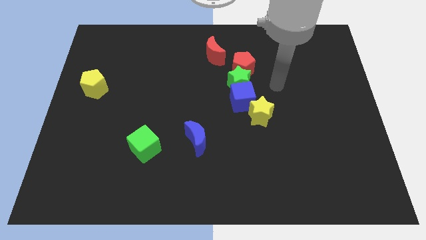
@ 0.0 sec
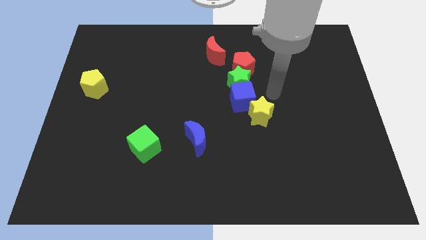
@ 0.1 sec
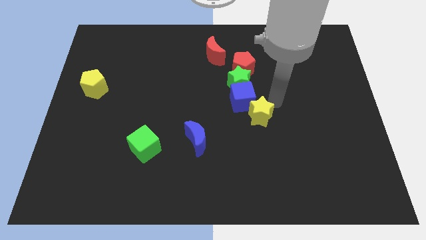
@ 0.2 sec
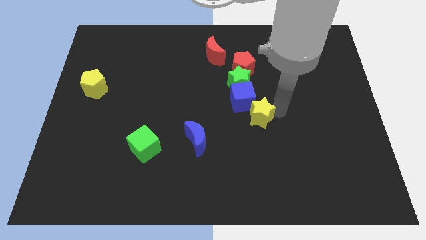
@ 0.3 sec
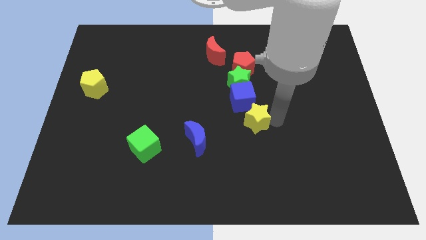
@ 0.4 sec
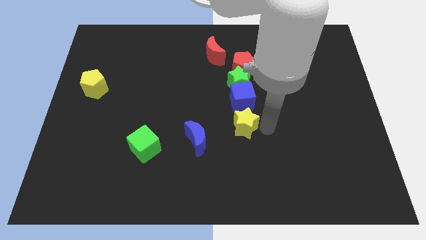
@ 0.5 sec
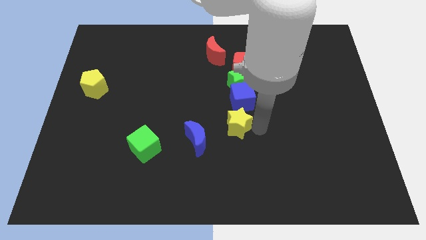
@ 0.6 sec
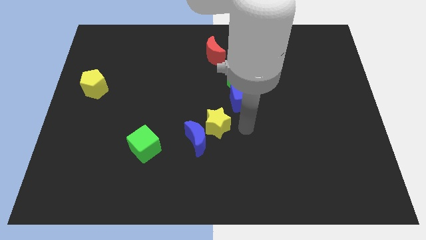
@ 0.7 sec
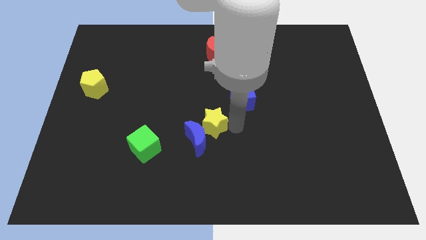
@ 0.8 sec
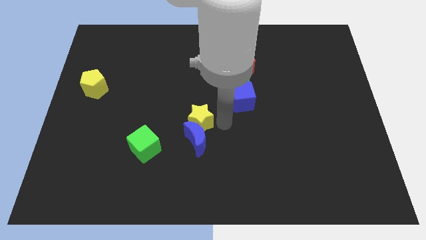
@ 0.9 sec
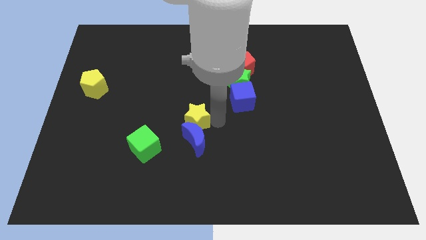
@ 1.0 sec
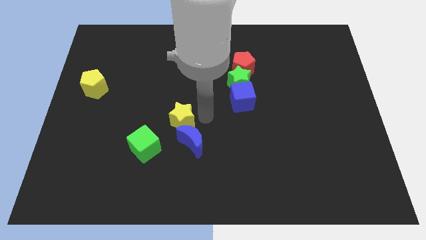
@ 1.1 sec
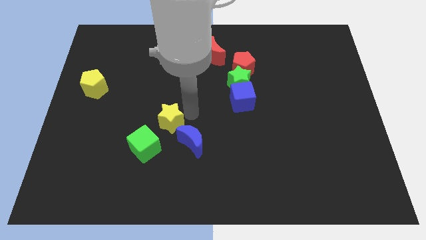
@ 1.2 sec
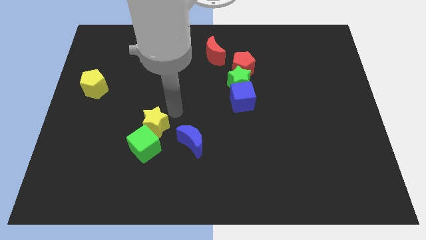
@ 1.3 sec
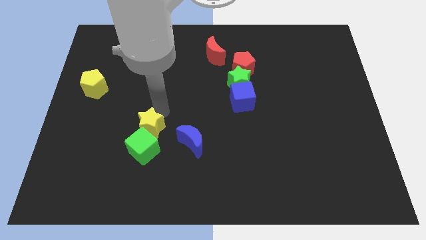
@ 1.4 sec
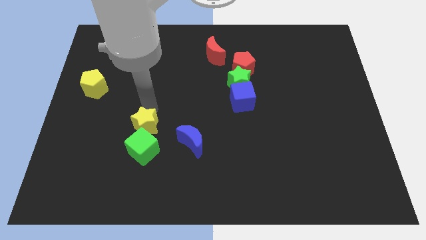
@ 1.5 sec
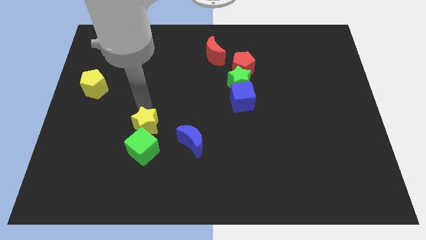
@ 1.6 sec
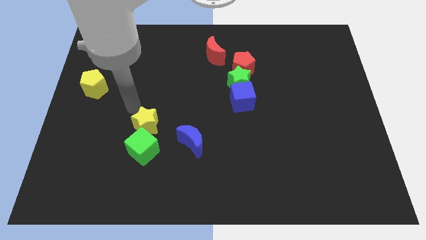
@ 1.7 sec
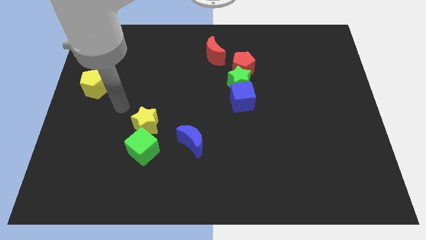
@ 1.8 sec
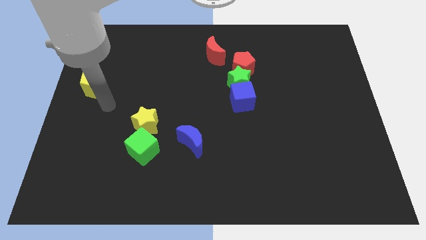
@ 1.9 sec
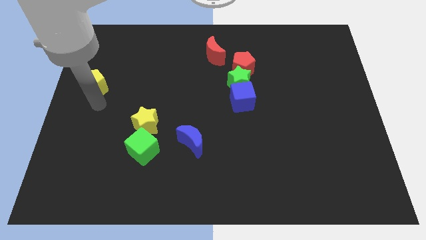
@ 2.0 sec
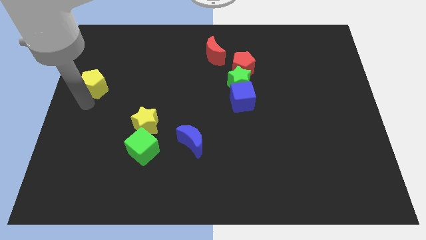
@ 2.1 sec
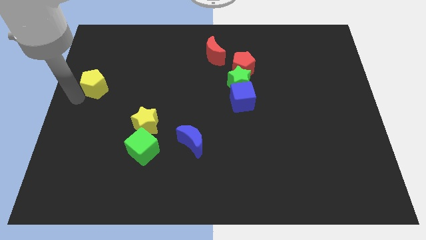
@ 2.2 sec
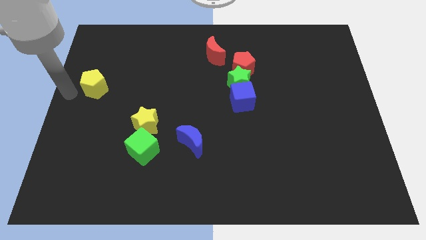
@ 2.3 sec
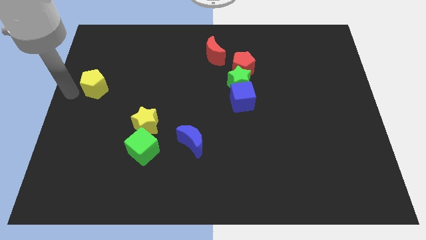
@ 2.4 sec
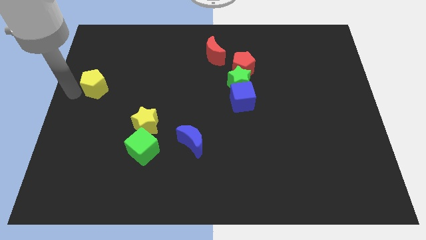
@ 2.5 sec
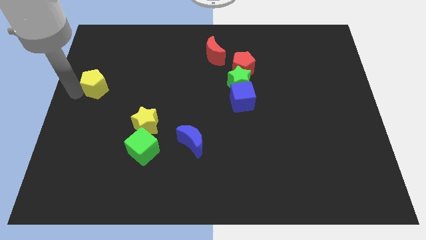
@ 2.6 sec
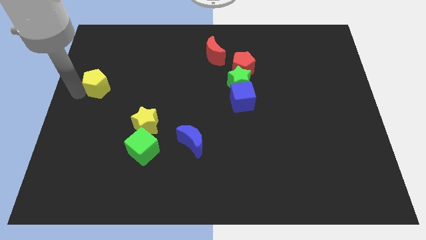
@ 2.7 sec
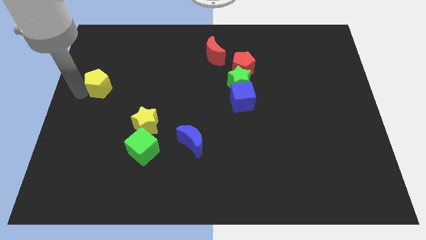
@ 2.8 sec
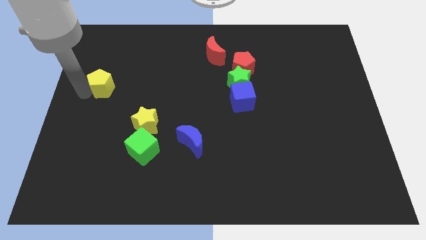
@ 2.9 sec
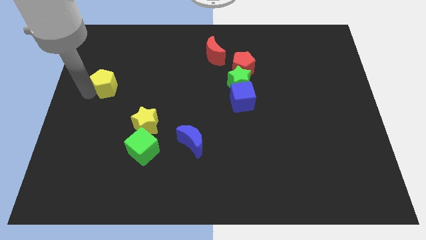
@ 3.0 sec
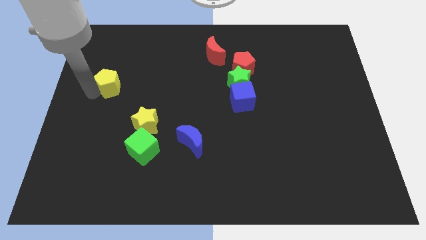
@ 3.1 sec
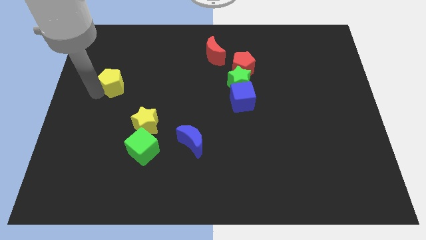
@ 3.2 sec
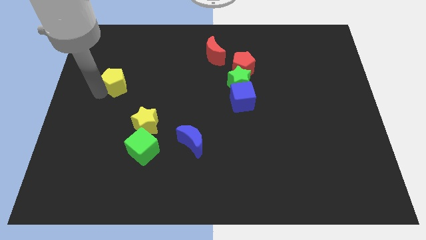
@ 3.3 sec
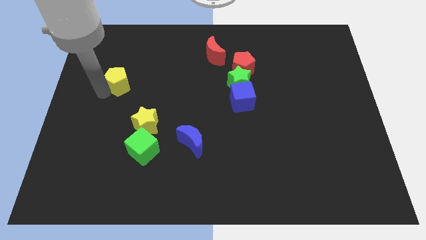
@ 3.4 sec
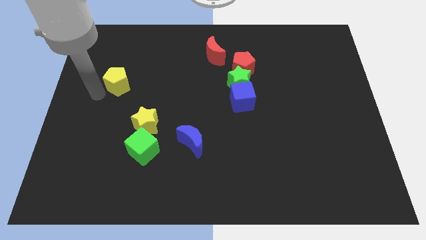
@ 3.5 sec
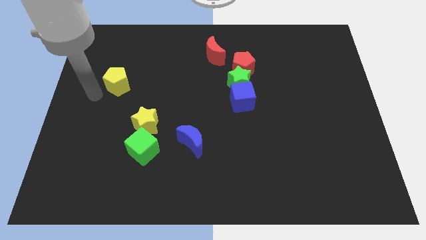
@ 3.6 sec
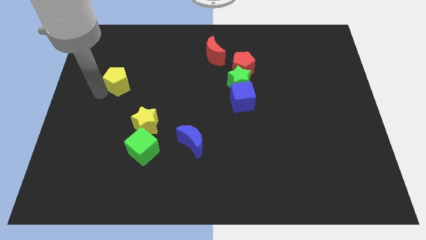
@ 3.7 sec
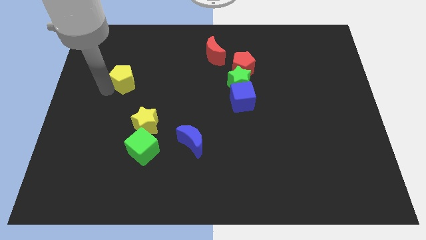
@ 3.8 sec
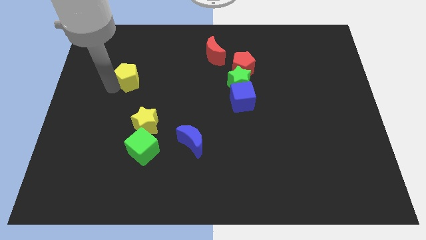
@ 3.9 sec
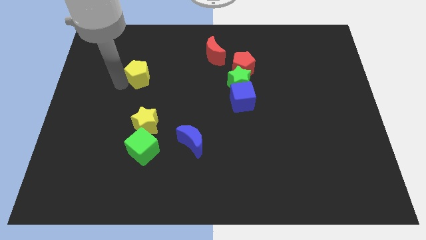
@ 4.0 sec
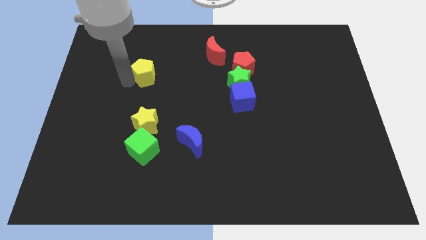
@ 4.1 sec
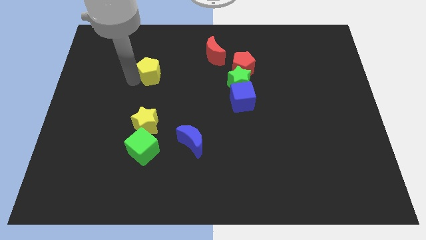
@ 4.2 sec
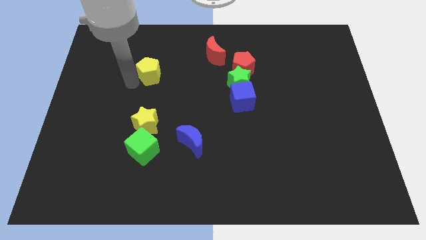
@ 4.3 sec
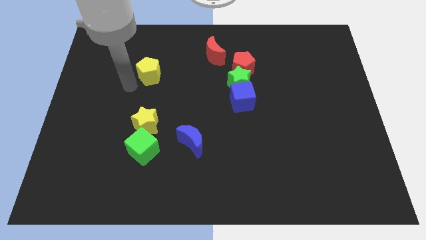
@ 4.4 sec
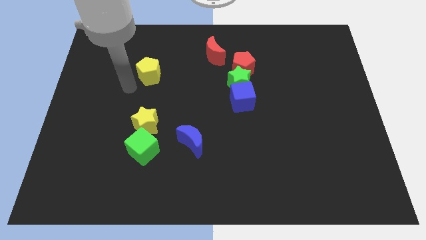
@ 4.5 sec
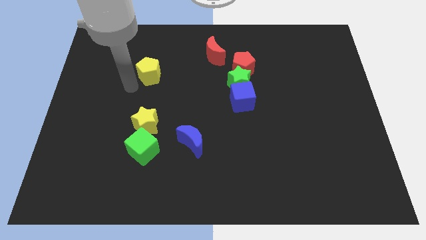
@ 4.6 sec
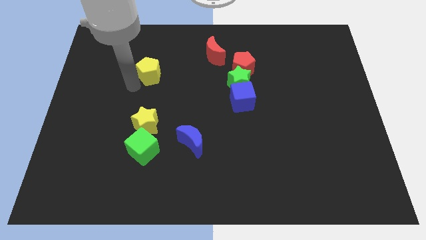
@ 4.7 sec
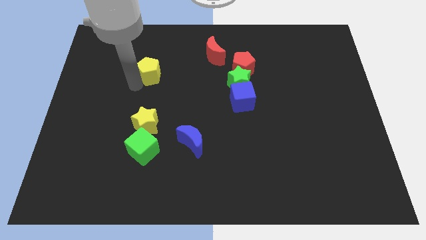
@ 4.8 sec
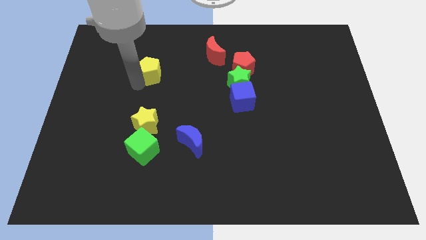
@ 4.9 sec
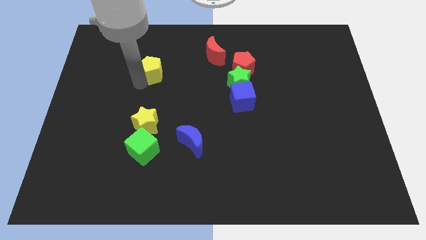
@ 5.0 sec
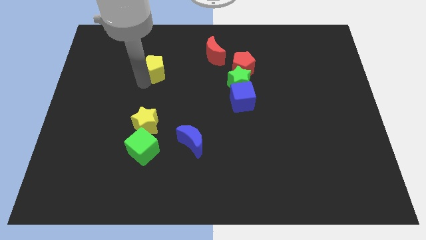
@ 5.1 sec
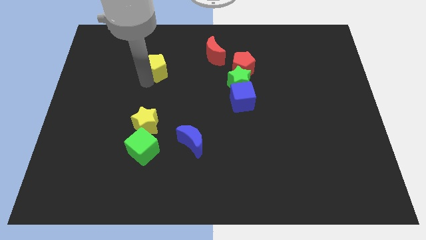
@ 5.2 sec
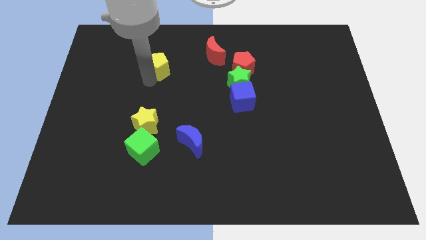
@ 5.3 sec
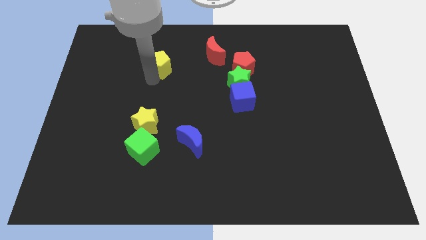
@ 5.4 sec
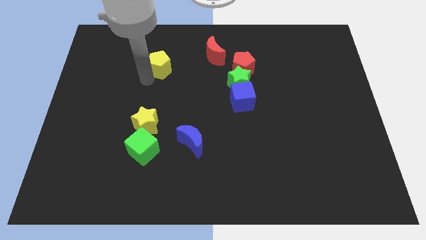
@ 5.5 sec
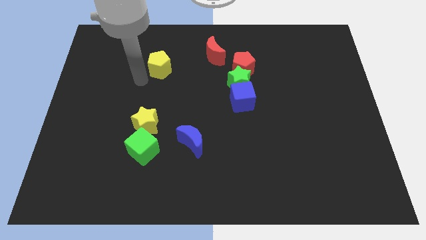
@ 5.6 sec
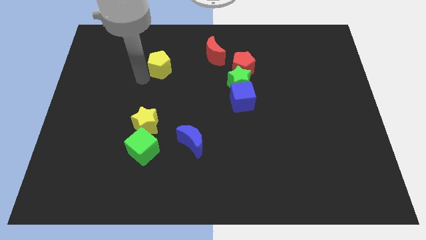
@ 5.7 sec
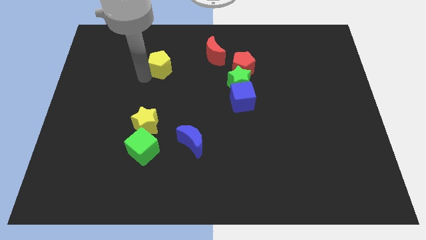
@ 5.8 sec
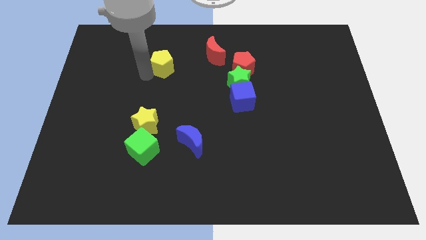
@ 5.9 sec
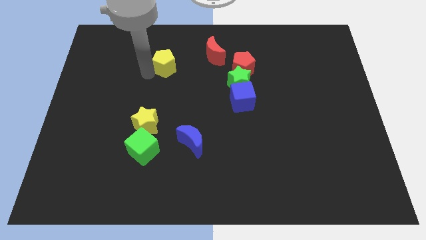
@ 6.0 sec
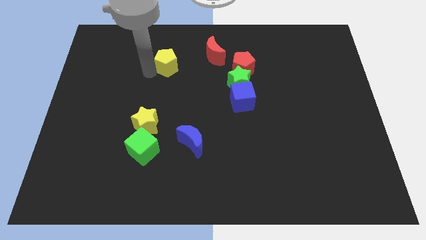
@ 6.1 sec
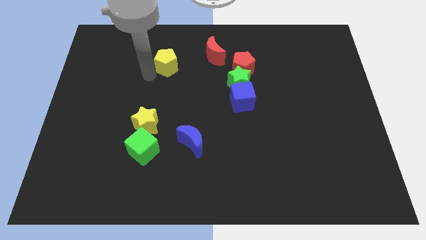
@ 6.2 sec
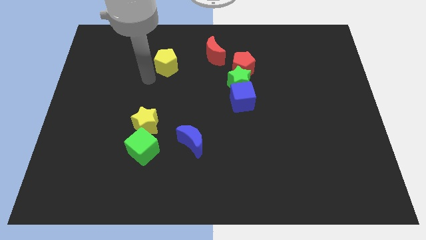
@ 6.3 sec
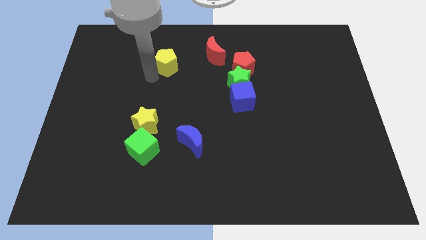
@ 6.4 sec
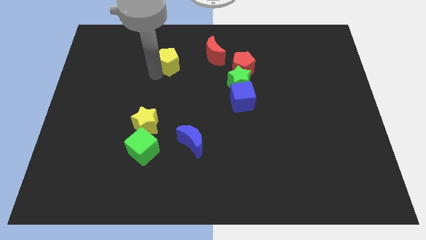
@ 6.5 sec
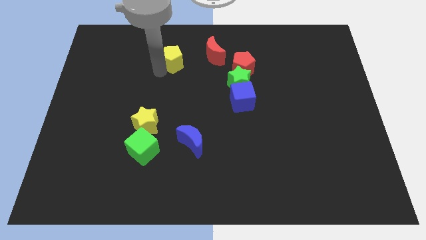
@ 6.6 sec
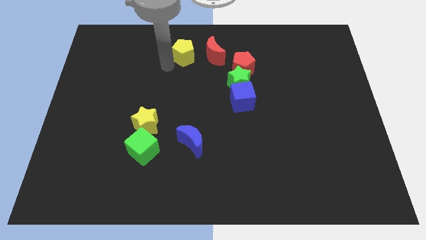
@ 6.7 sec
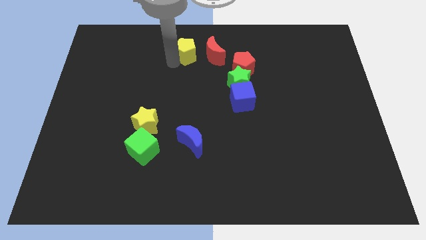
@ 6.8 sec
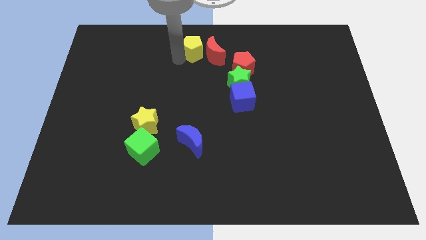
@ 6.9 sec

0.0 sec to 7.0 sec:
put the yellow pentagon to the top side

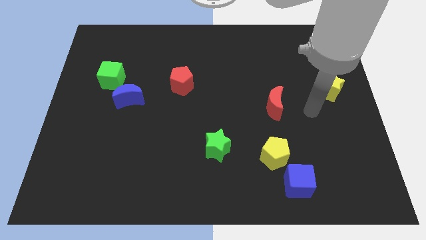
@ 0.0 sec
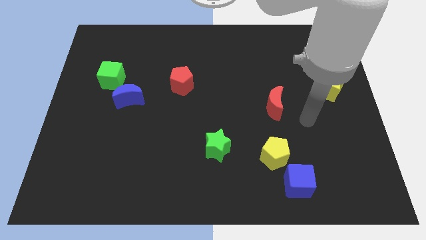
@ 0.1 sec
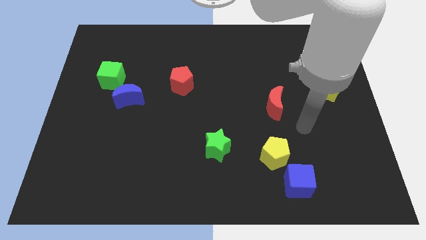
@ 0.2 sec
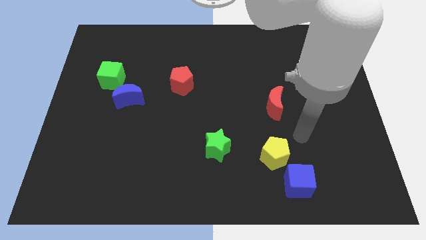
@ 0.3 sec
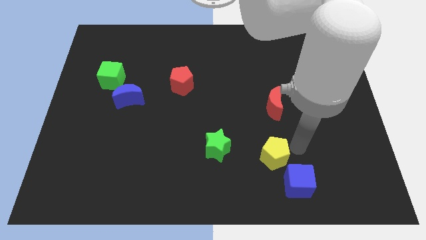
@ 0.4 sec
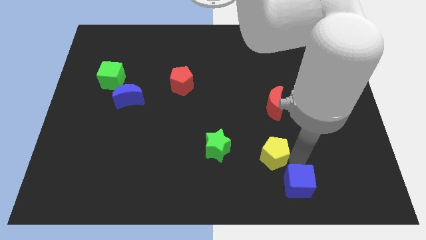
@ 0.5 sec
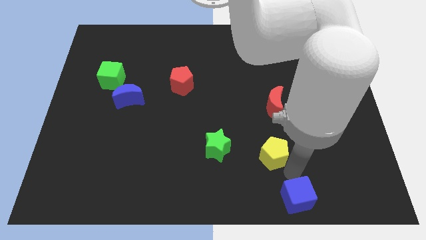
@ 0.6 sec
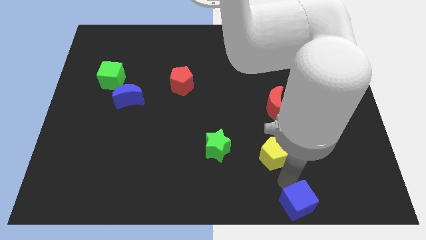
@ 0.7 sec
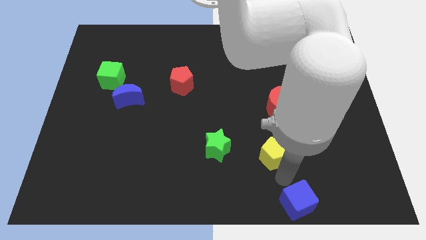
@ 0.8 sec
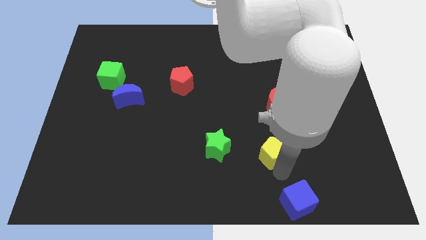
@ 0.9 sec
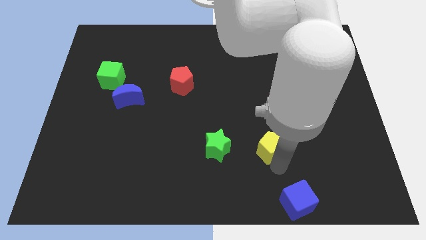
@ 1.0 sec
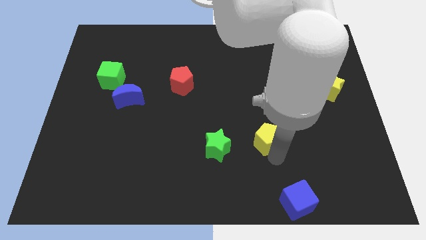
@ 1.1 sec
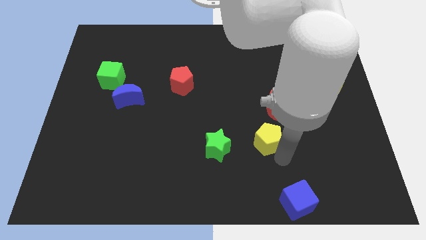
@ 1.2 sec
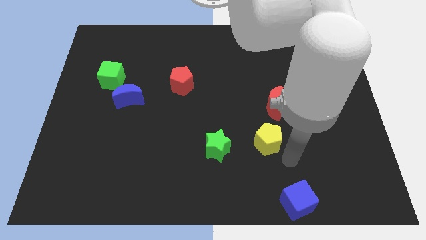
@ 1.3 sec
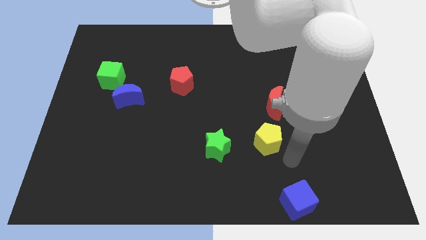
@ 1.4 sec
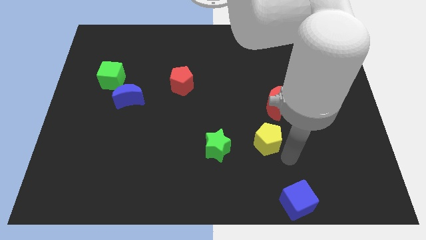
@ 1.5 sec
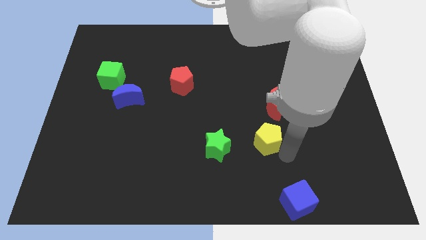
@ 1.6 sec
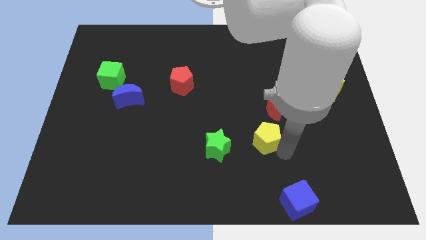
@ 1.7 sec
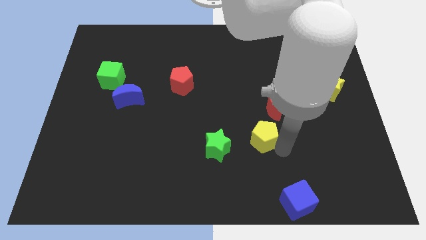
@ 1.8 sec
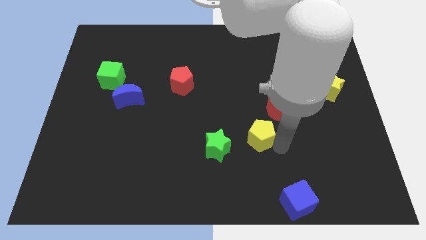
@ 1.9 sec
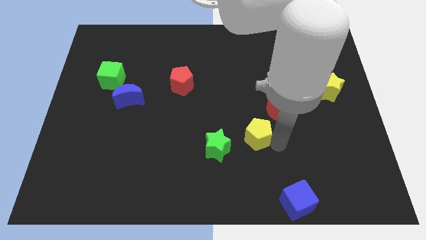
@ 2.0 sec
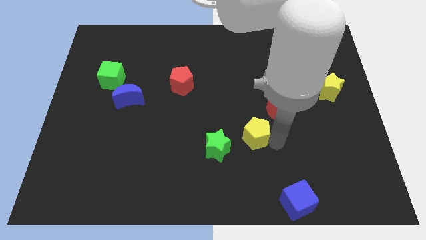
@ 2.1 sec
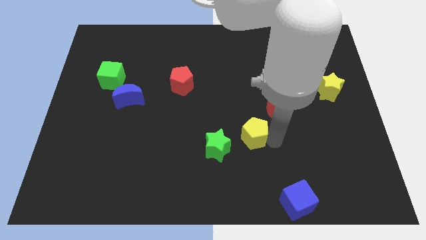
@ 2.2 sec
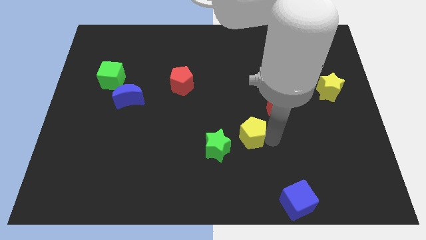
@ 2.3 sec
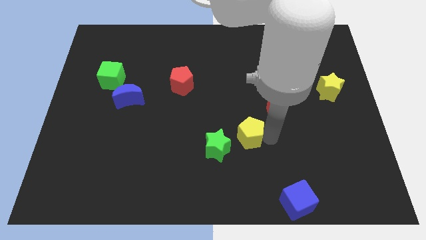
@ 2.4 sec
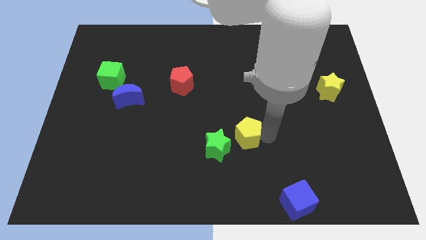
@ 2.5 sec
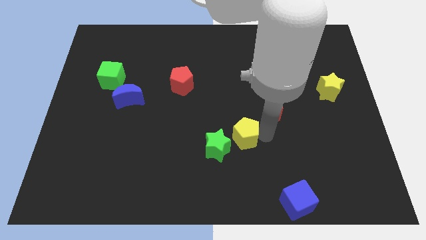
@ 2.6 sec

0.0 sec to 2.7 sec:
put the yellow pentagon to the center of the board
